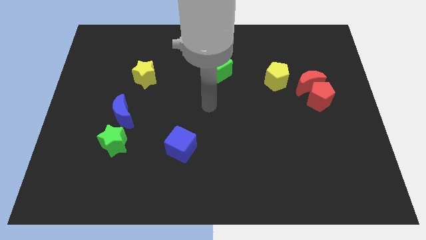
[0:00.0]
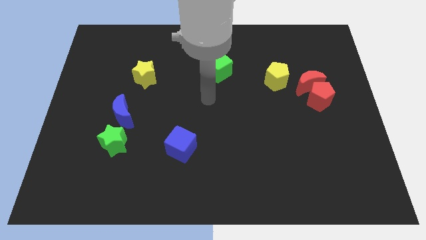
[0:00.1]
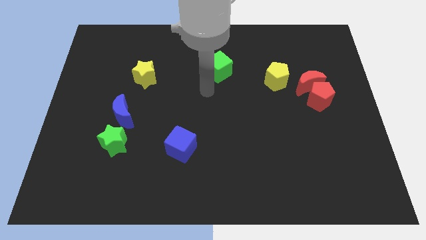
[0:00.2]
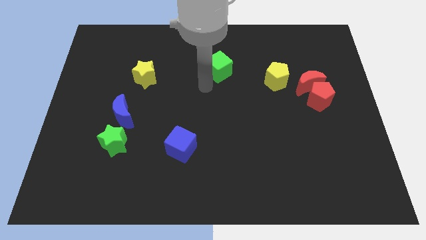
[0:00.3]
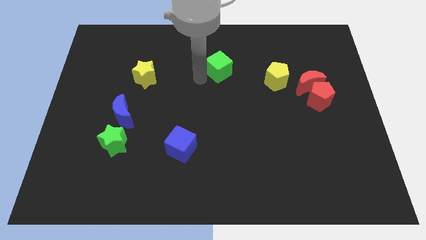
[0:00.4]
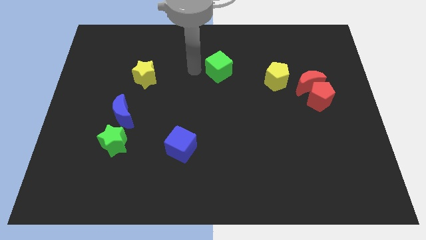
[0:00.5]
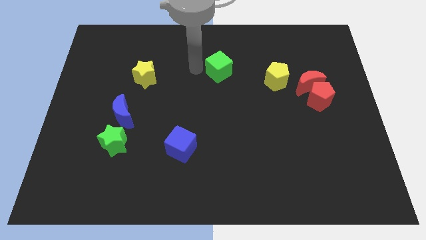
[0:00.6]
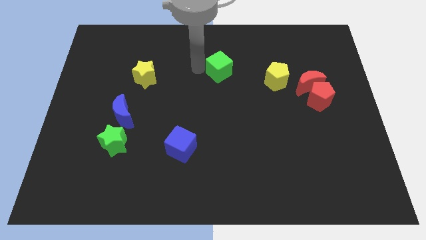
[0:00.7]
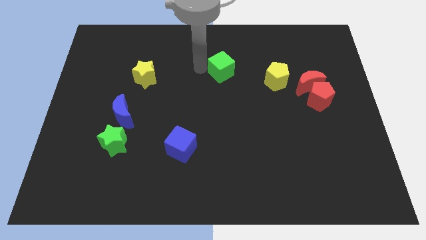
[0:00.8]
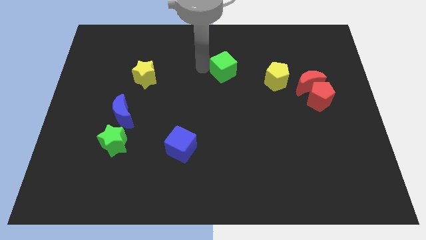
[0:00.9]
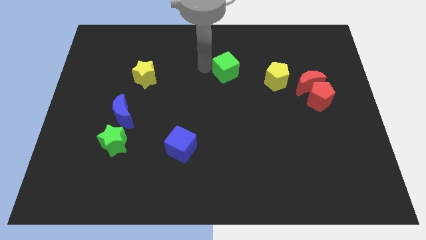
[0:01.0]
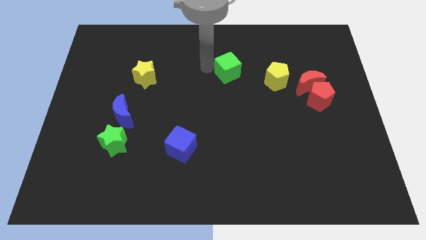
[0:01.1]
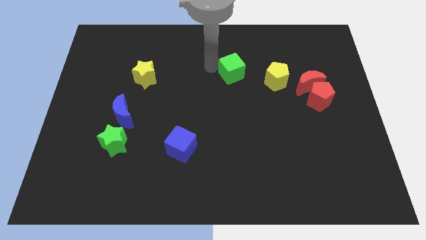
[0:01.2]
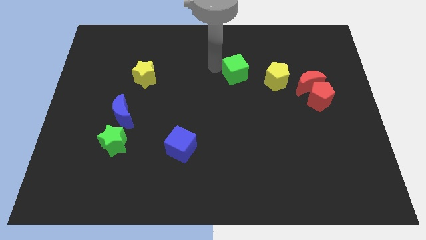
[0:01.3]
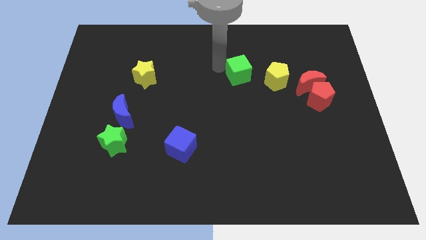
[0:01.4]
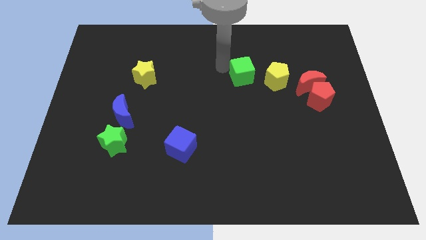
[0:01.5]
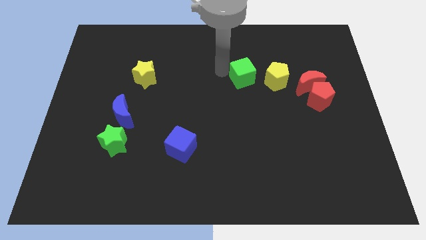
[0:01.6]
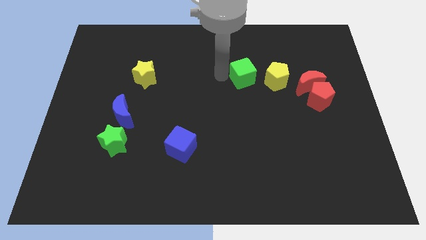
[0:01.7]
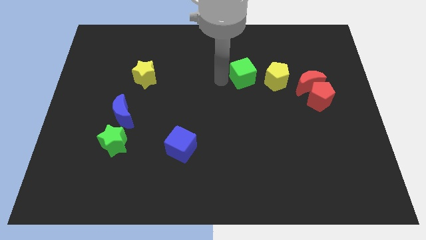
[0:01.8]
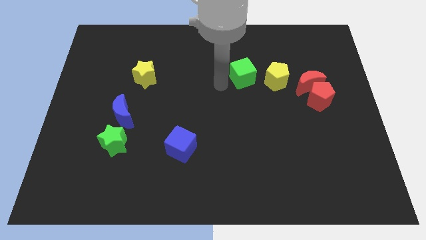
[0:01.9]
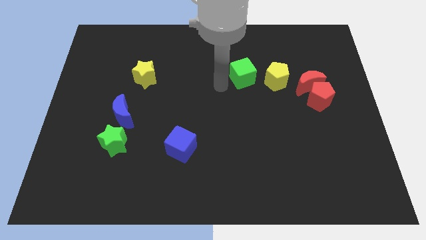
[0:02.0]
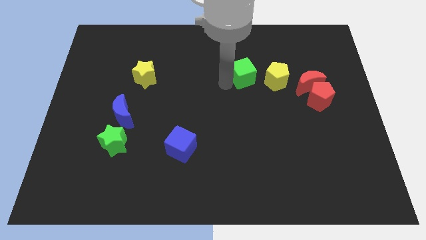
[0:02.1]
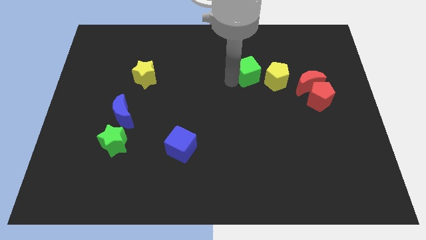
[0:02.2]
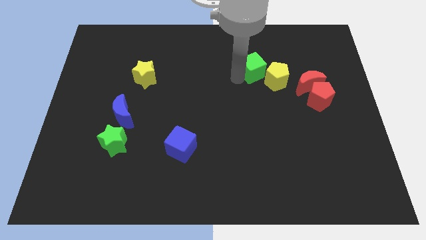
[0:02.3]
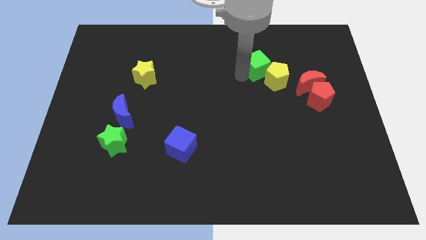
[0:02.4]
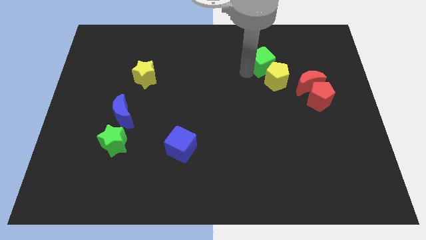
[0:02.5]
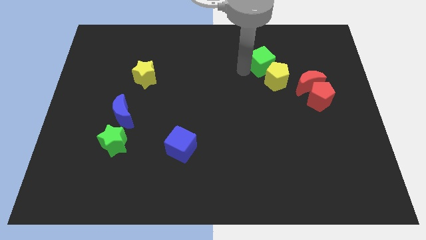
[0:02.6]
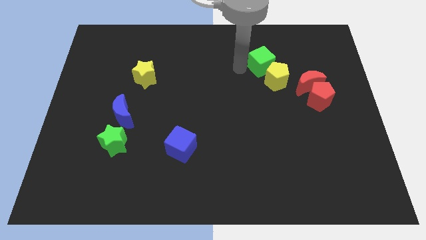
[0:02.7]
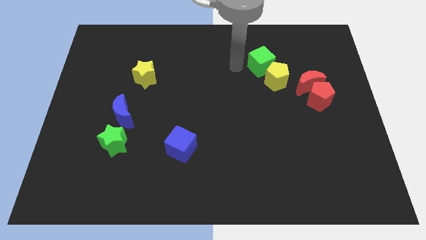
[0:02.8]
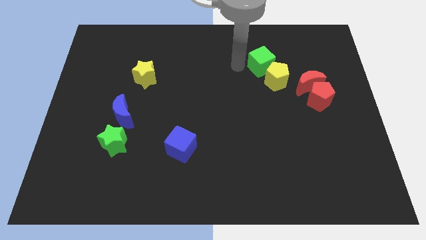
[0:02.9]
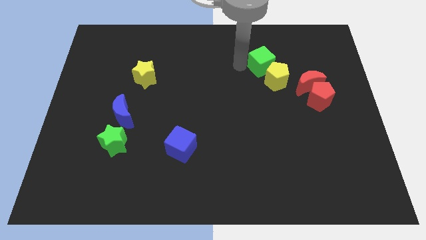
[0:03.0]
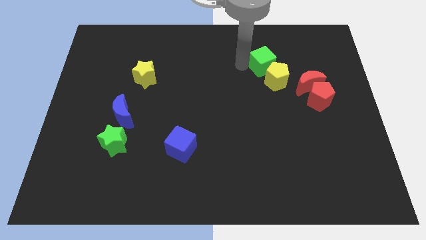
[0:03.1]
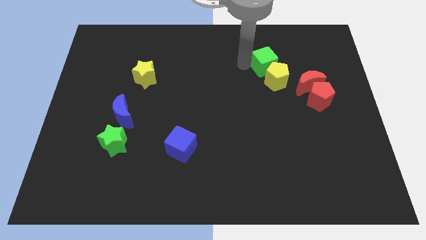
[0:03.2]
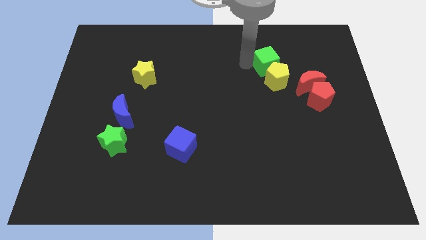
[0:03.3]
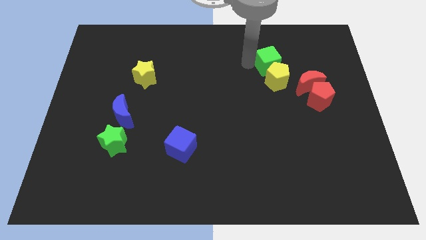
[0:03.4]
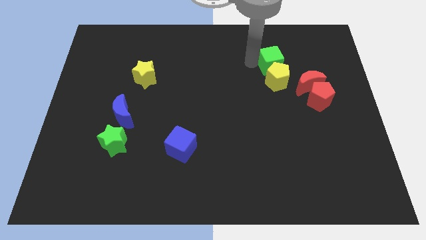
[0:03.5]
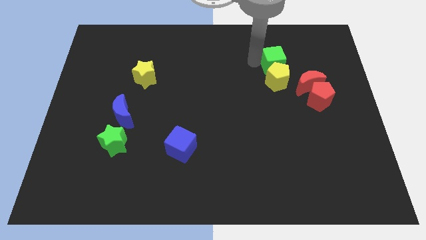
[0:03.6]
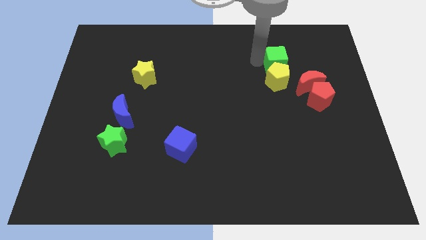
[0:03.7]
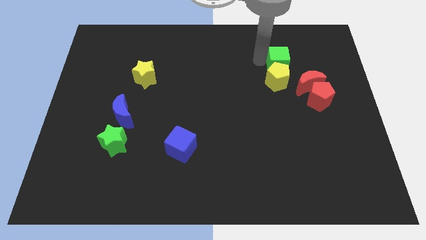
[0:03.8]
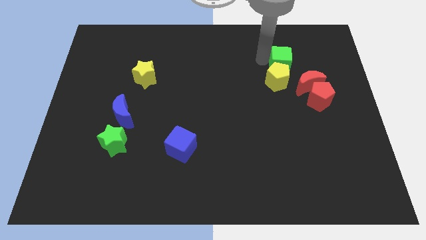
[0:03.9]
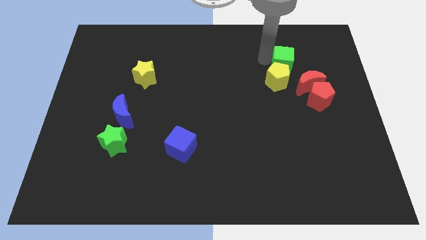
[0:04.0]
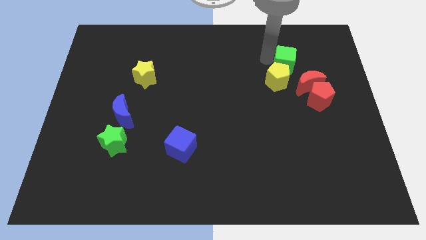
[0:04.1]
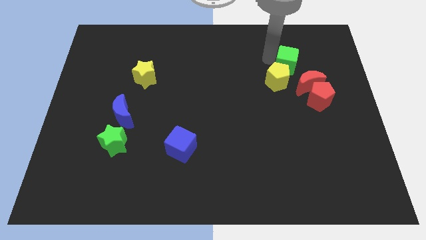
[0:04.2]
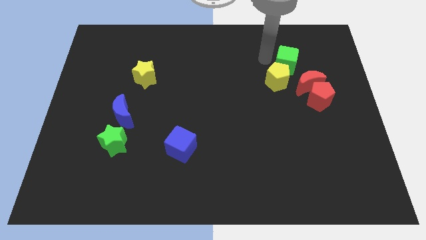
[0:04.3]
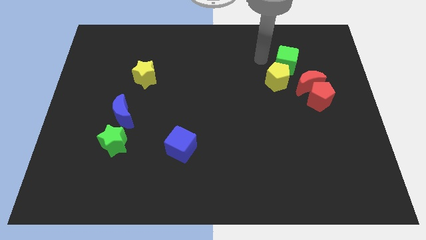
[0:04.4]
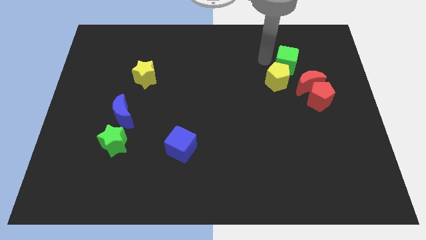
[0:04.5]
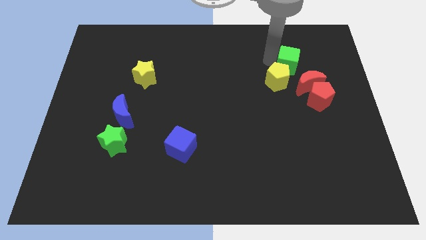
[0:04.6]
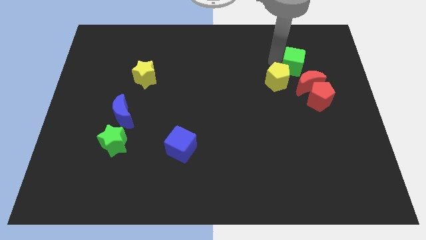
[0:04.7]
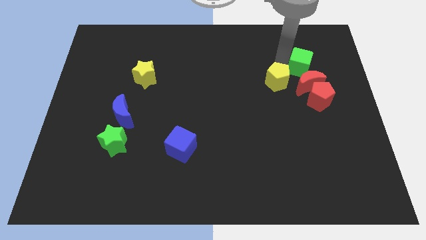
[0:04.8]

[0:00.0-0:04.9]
put the green cube to the right of the yellow pentagon

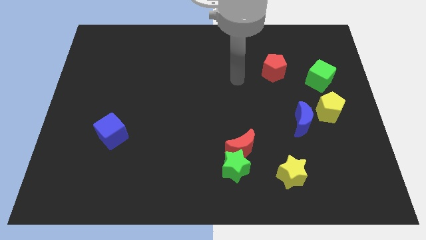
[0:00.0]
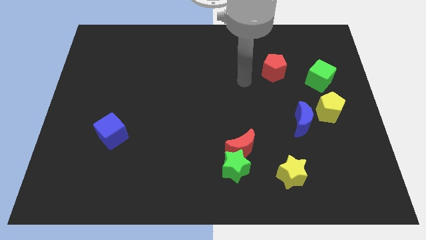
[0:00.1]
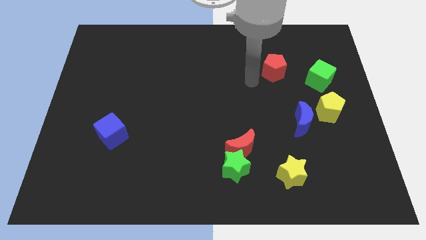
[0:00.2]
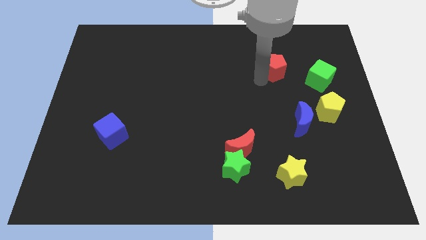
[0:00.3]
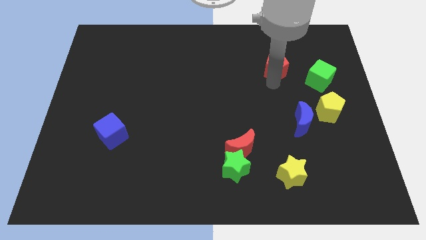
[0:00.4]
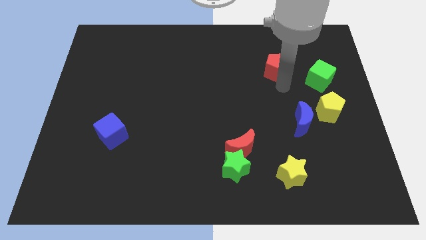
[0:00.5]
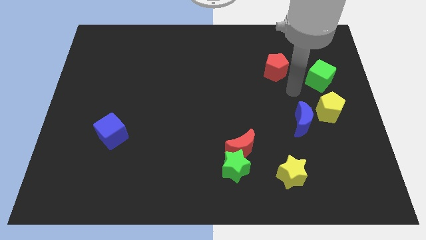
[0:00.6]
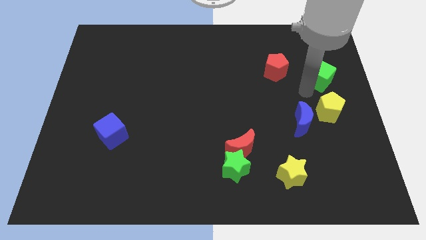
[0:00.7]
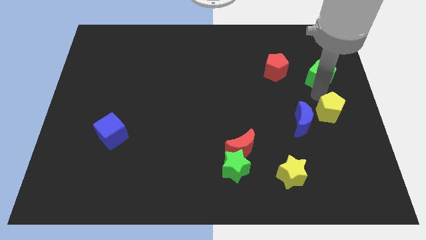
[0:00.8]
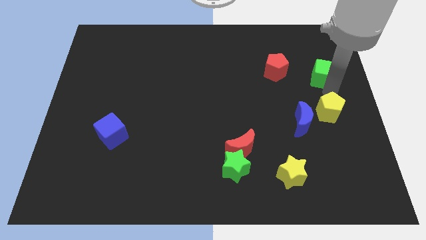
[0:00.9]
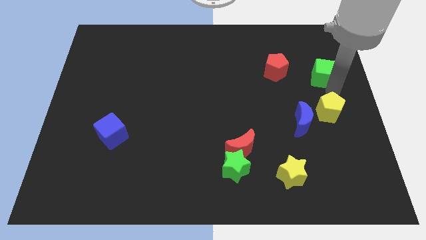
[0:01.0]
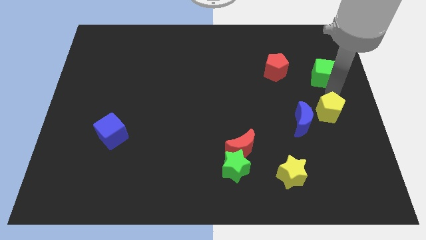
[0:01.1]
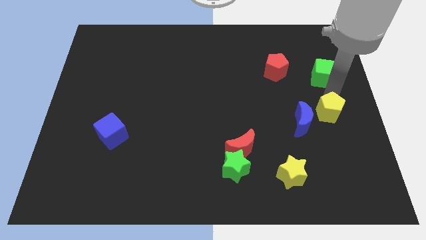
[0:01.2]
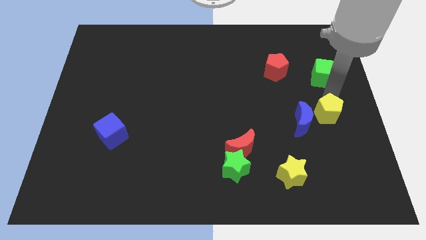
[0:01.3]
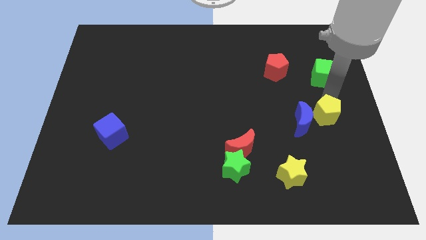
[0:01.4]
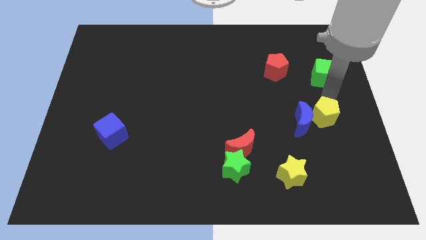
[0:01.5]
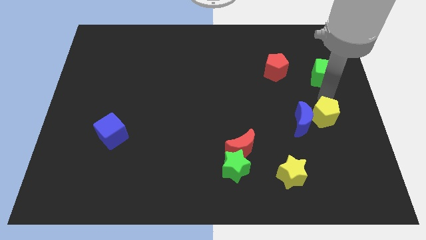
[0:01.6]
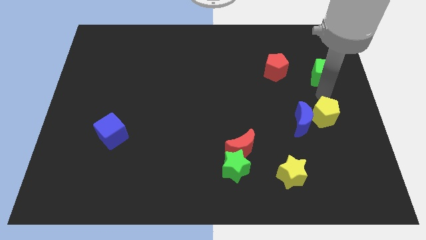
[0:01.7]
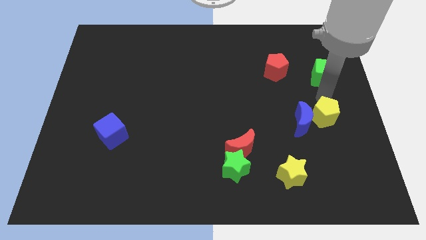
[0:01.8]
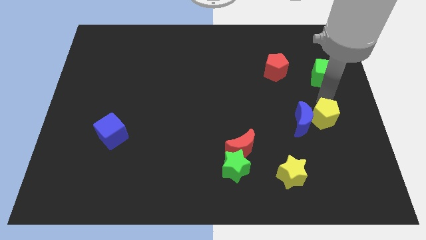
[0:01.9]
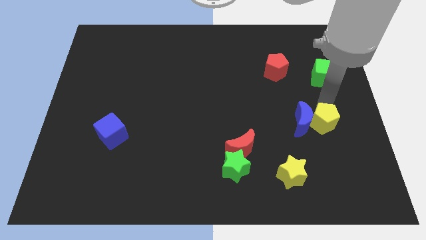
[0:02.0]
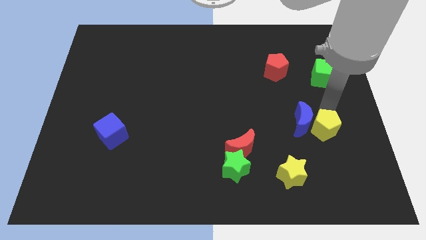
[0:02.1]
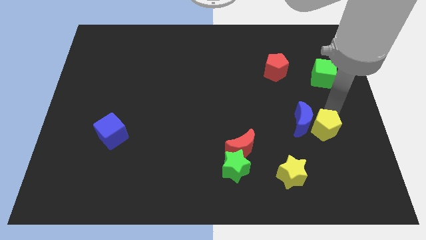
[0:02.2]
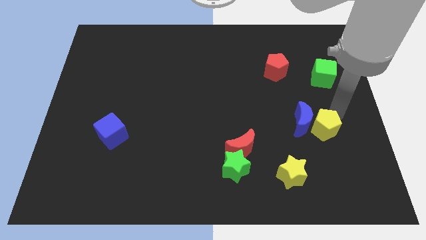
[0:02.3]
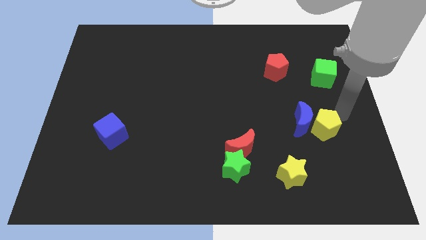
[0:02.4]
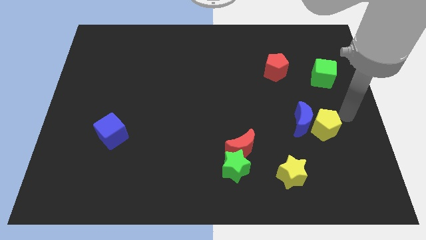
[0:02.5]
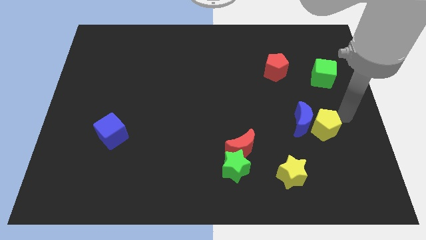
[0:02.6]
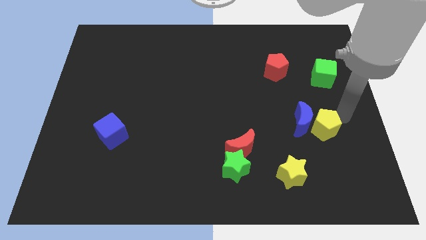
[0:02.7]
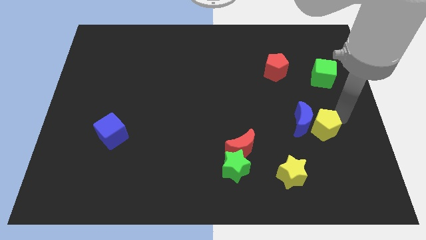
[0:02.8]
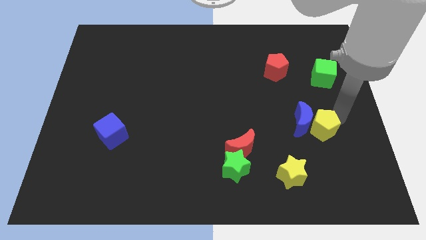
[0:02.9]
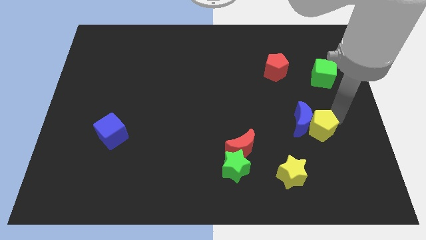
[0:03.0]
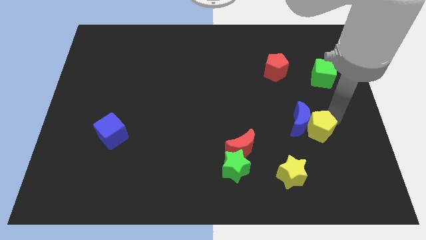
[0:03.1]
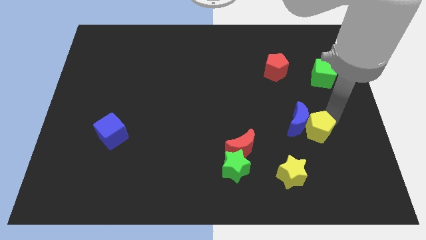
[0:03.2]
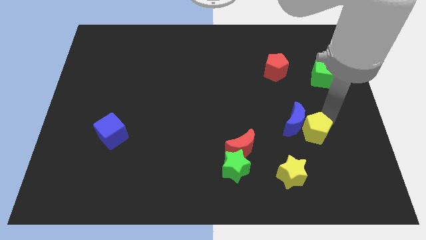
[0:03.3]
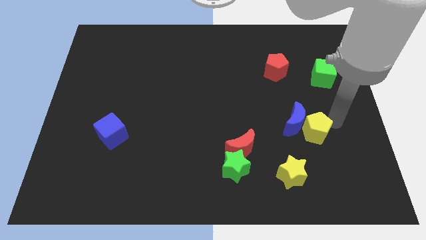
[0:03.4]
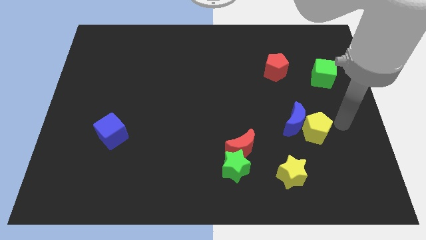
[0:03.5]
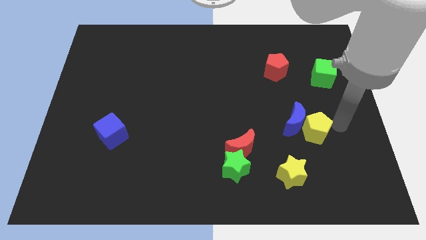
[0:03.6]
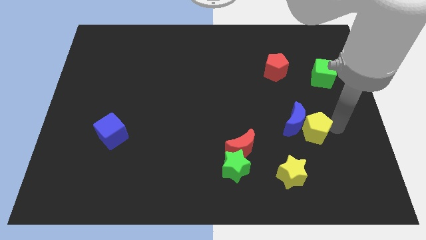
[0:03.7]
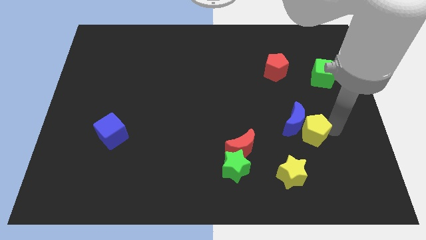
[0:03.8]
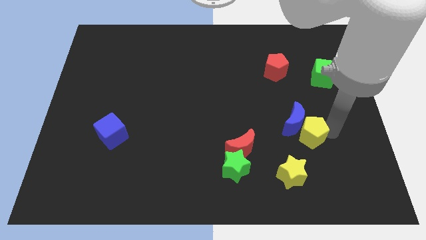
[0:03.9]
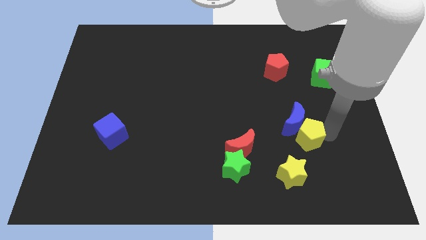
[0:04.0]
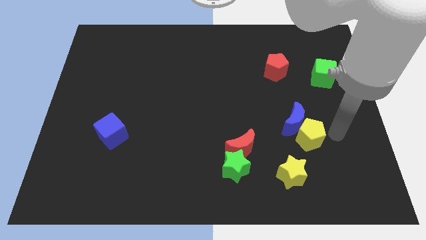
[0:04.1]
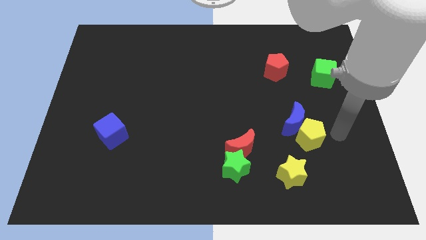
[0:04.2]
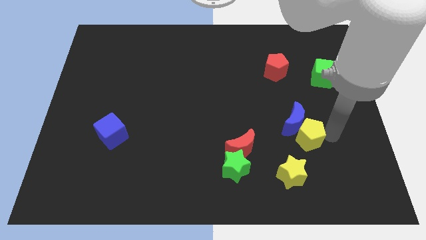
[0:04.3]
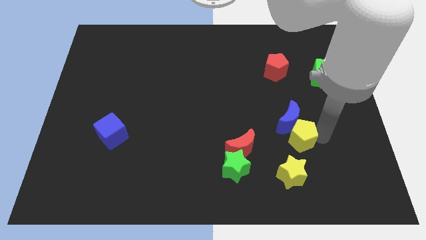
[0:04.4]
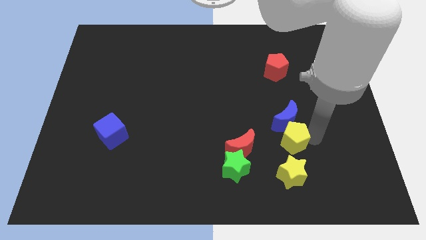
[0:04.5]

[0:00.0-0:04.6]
slide the yellow pentagon to the bottom left of the blue moon
